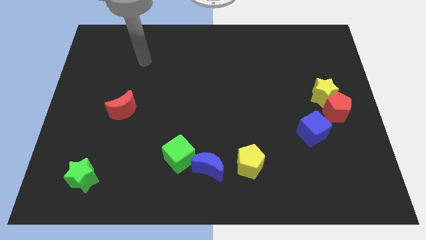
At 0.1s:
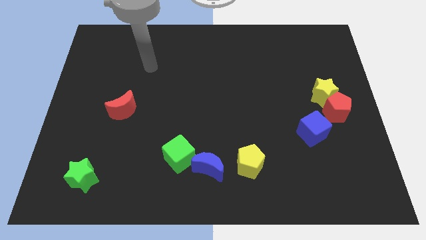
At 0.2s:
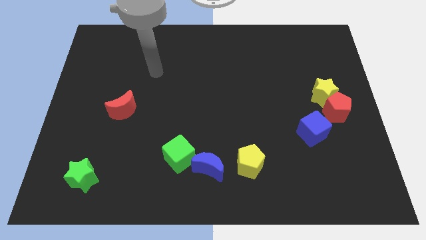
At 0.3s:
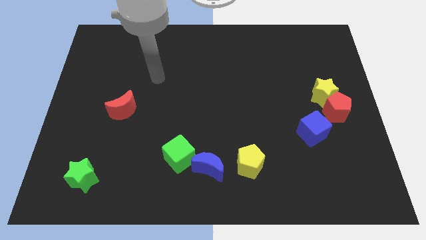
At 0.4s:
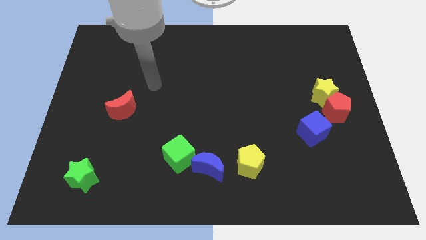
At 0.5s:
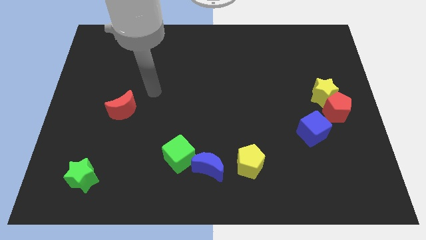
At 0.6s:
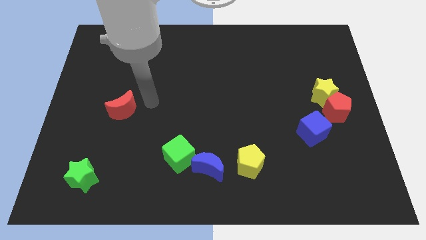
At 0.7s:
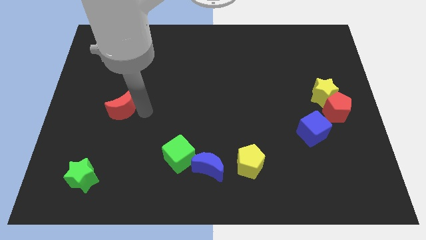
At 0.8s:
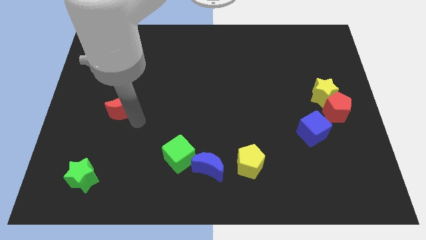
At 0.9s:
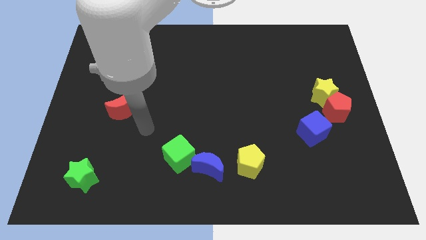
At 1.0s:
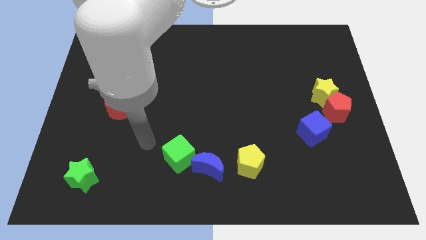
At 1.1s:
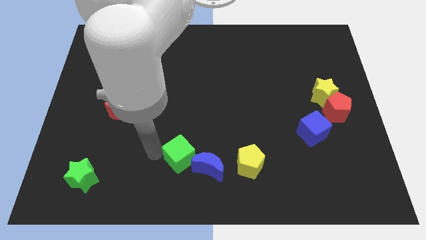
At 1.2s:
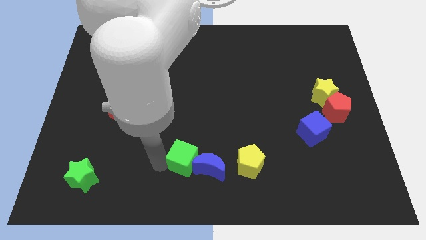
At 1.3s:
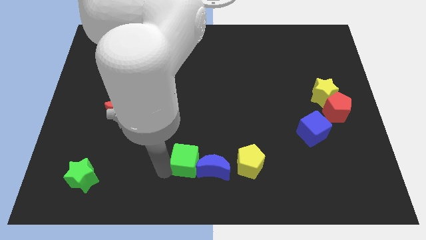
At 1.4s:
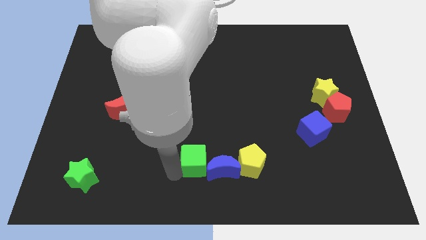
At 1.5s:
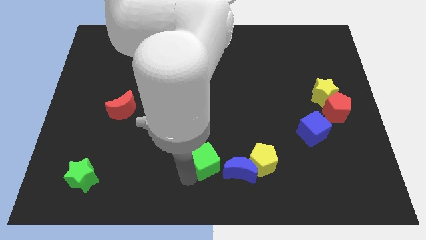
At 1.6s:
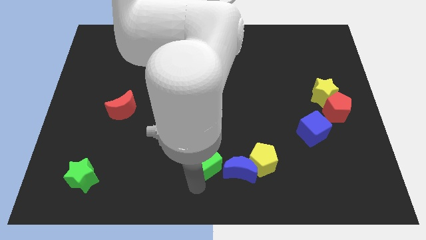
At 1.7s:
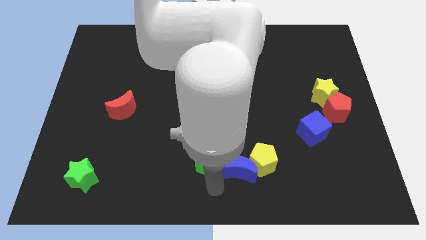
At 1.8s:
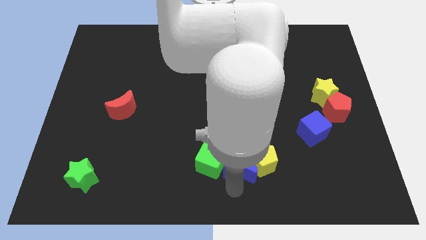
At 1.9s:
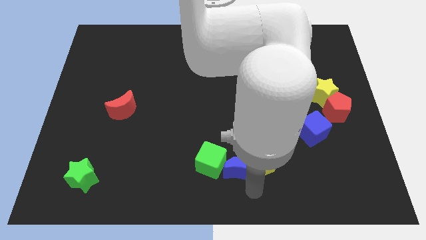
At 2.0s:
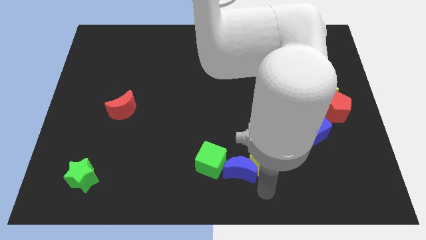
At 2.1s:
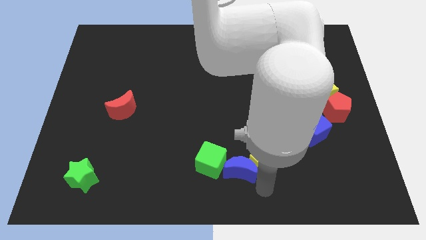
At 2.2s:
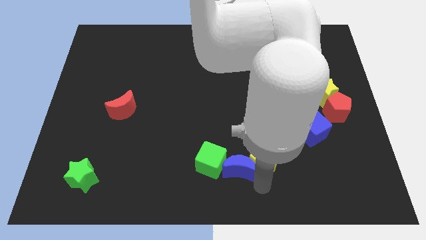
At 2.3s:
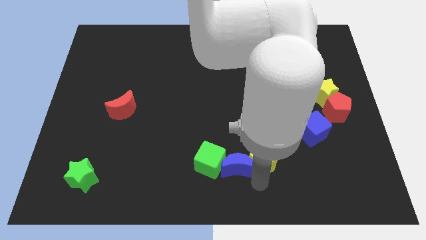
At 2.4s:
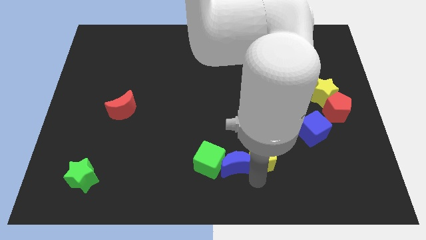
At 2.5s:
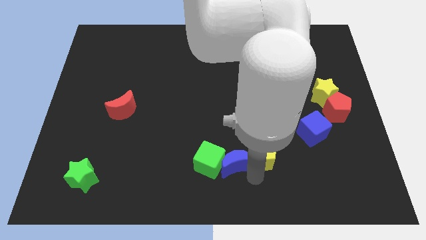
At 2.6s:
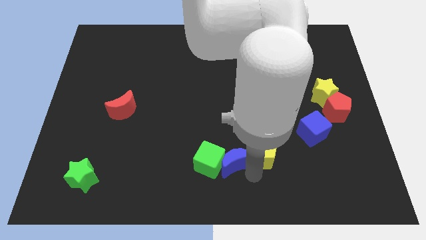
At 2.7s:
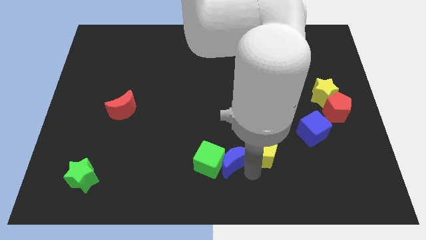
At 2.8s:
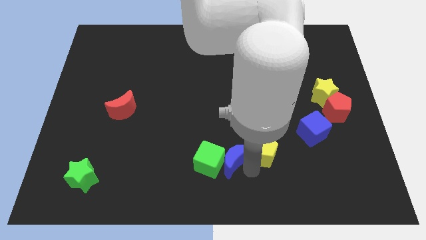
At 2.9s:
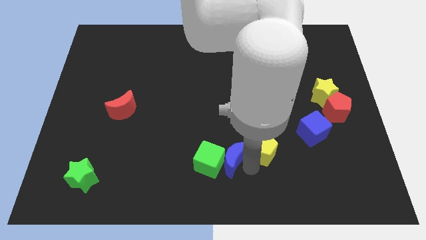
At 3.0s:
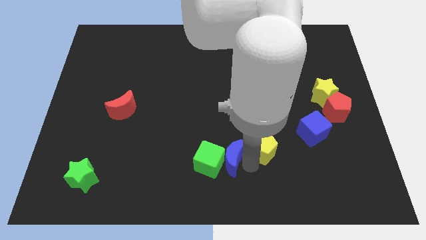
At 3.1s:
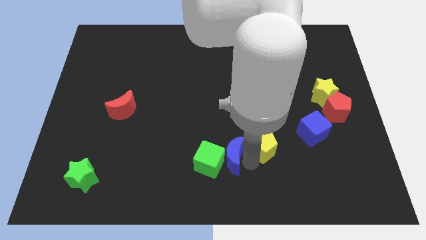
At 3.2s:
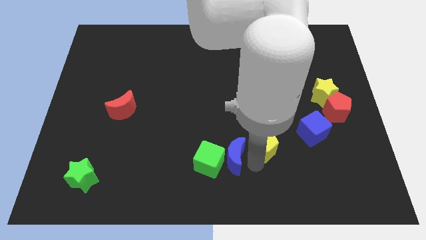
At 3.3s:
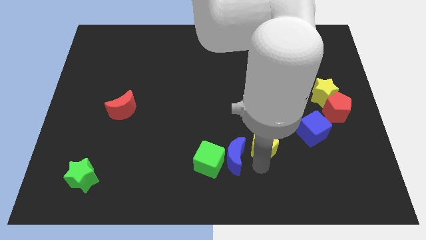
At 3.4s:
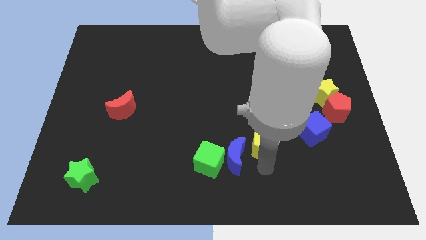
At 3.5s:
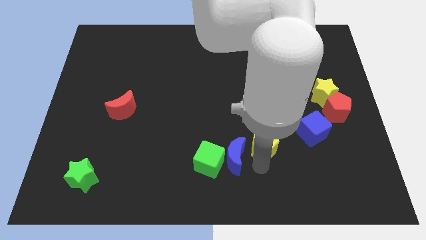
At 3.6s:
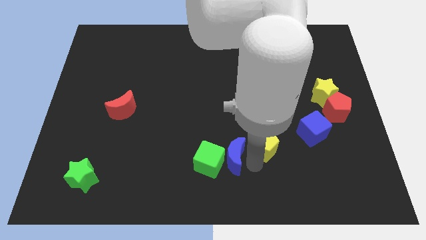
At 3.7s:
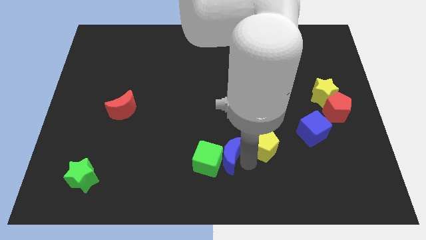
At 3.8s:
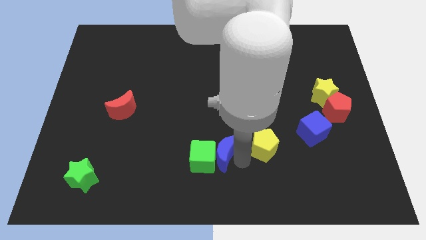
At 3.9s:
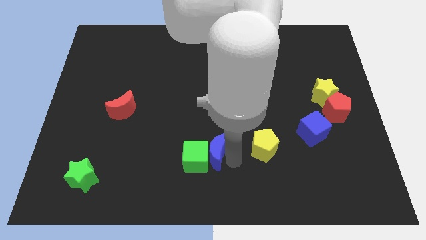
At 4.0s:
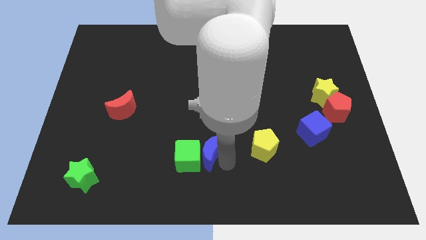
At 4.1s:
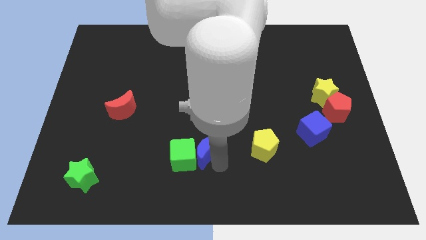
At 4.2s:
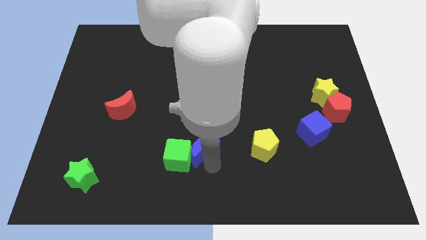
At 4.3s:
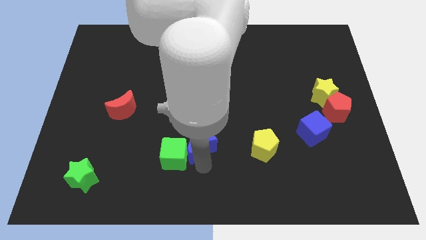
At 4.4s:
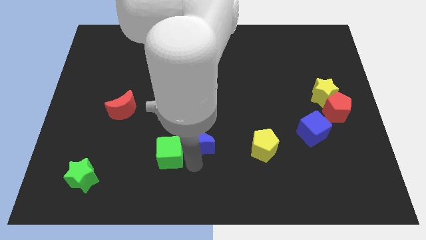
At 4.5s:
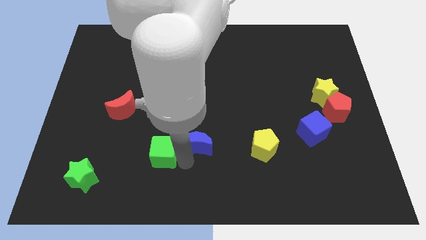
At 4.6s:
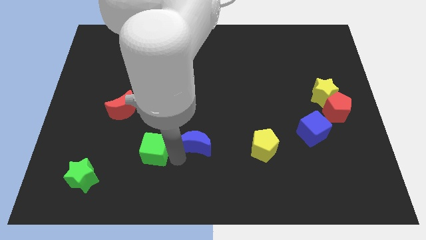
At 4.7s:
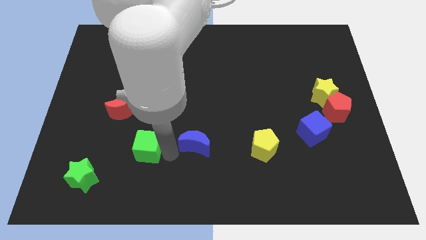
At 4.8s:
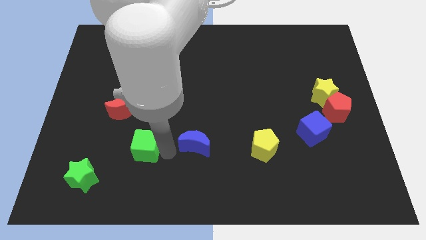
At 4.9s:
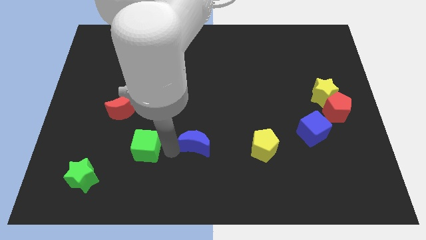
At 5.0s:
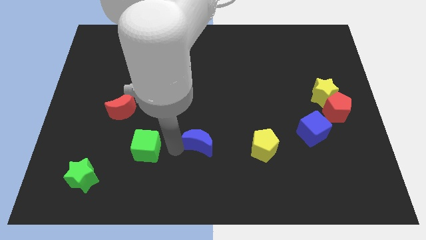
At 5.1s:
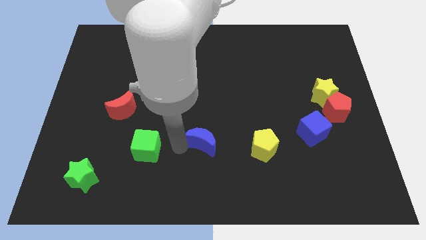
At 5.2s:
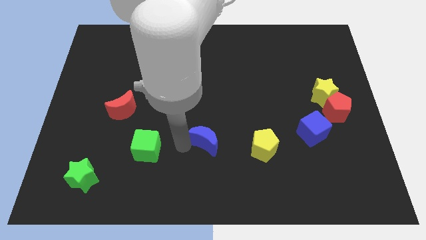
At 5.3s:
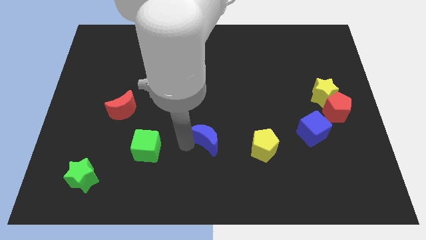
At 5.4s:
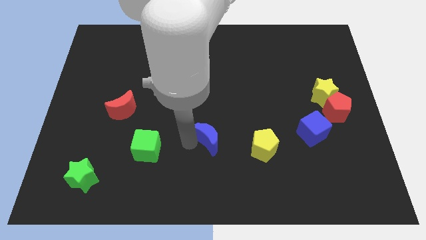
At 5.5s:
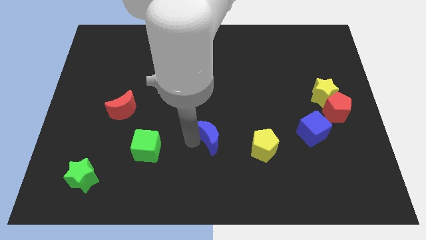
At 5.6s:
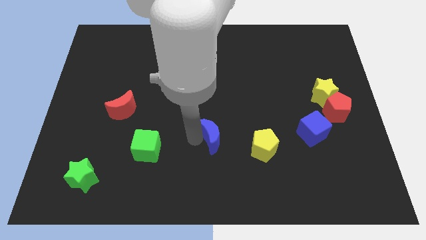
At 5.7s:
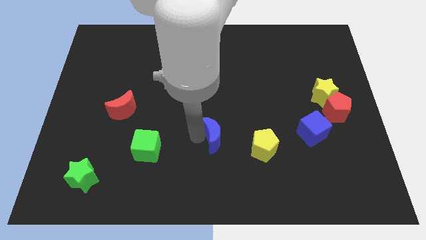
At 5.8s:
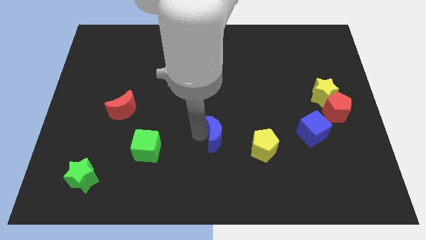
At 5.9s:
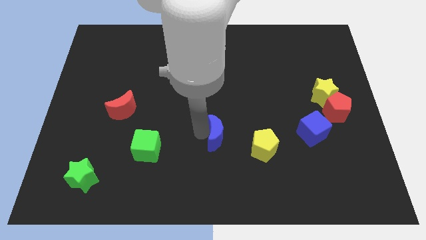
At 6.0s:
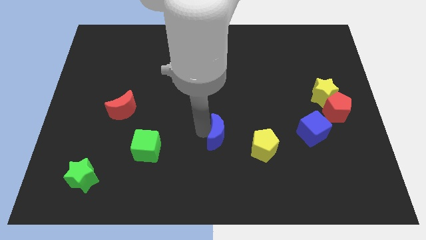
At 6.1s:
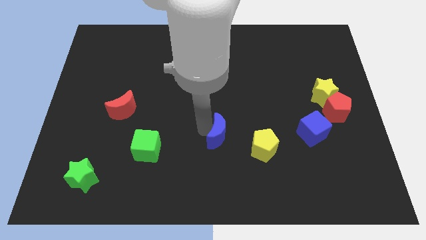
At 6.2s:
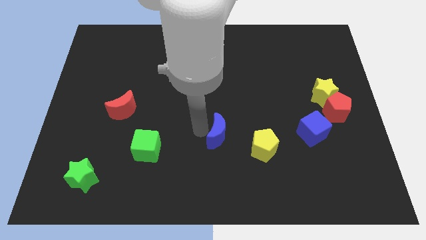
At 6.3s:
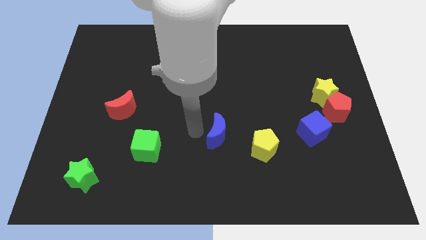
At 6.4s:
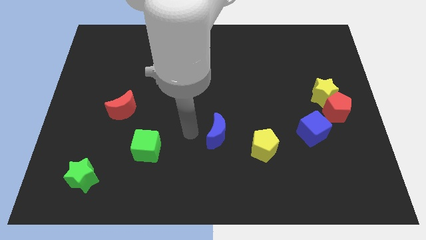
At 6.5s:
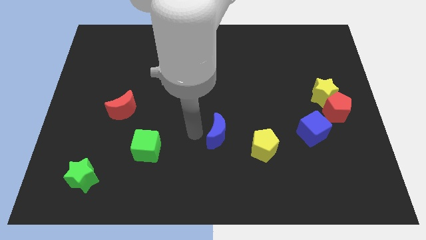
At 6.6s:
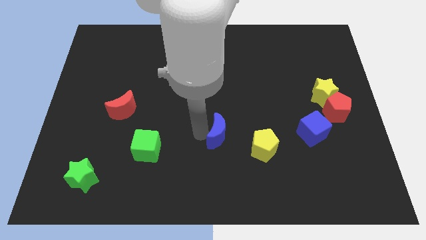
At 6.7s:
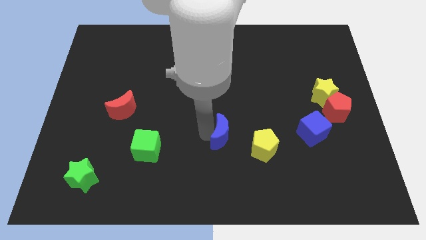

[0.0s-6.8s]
slightly move the blue moon upwards and then to the right

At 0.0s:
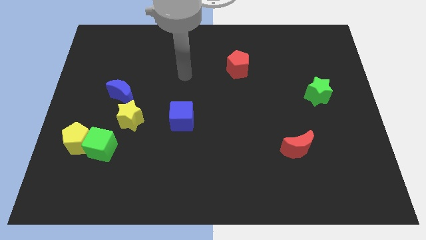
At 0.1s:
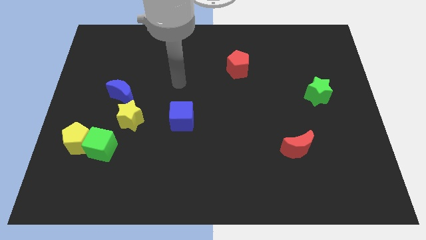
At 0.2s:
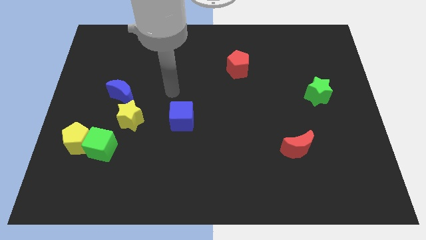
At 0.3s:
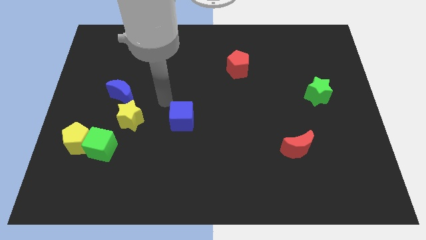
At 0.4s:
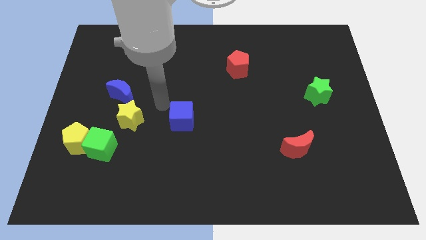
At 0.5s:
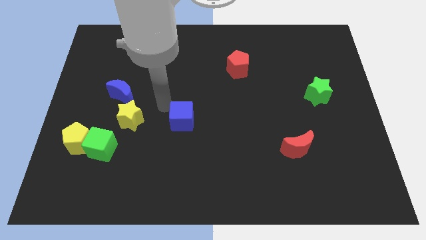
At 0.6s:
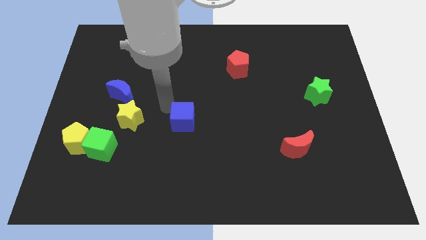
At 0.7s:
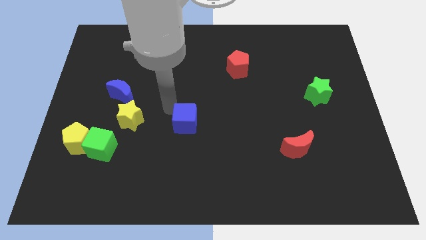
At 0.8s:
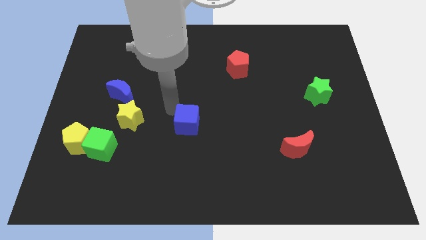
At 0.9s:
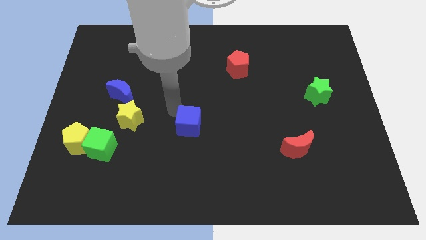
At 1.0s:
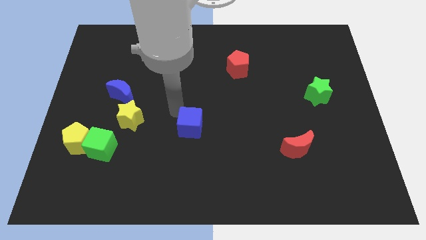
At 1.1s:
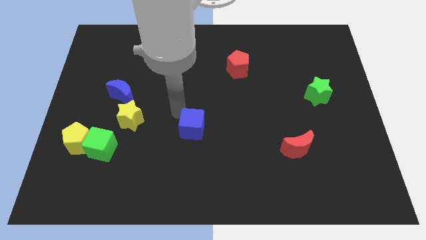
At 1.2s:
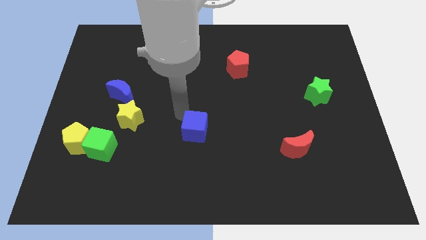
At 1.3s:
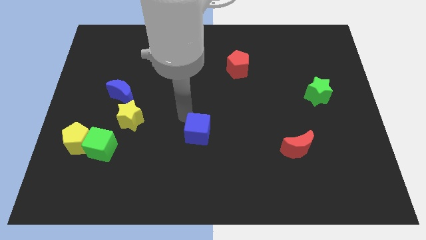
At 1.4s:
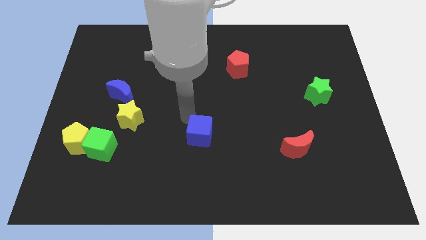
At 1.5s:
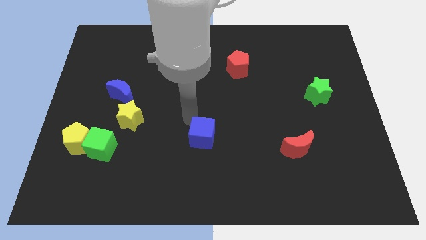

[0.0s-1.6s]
push the blue cube a little down and to the right diagonally
